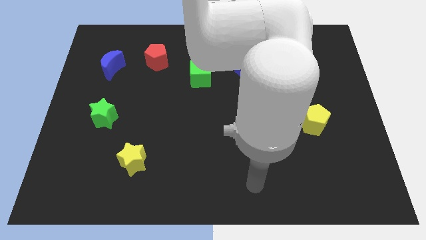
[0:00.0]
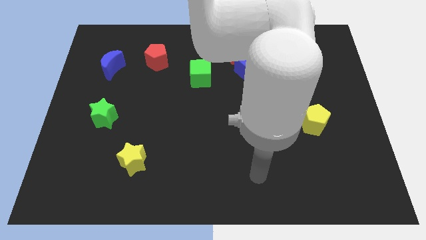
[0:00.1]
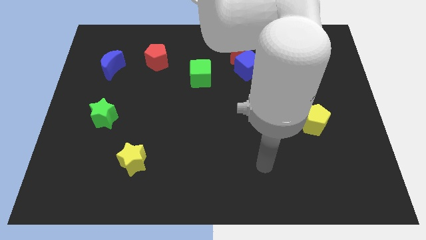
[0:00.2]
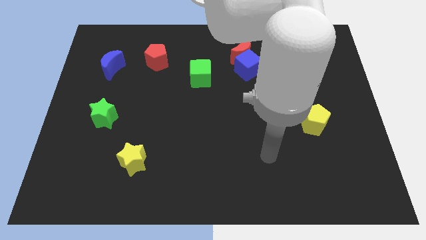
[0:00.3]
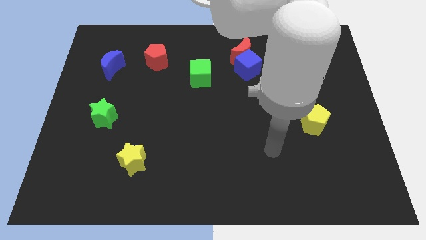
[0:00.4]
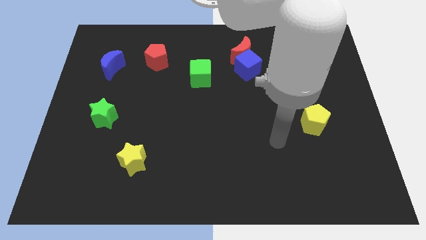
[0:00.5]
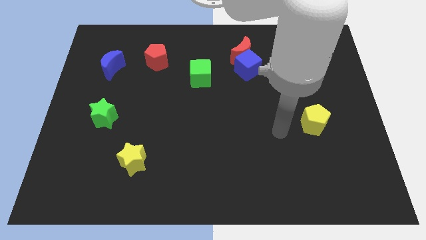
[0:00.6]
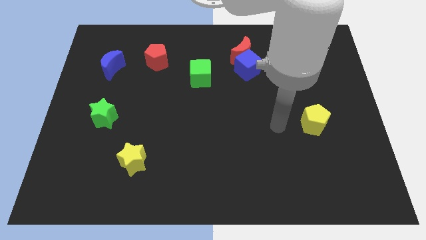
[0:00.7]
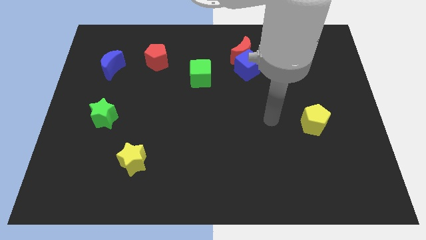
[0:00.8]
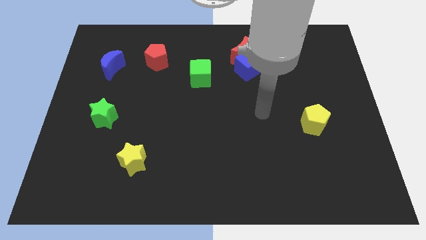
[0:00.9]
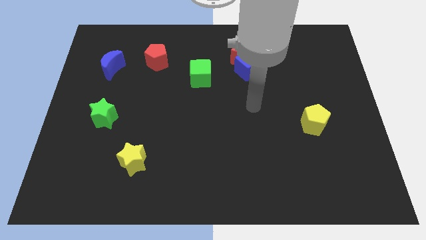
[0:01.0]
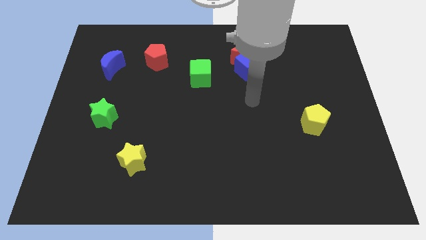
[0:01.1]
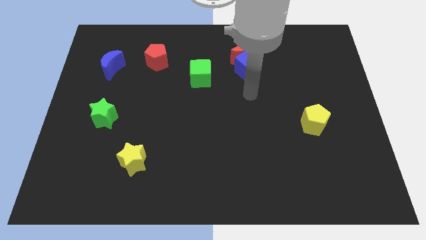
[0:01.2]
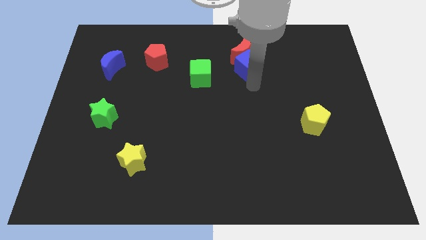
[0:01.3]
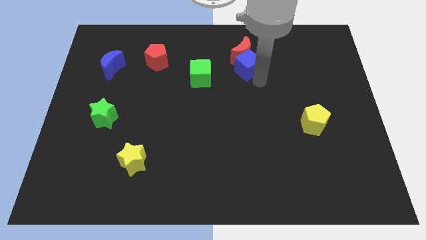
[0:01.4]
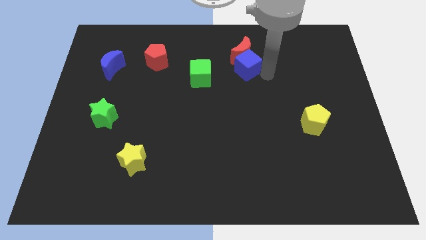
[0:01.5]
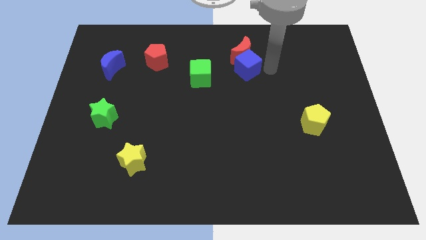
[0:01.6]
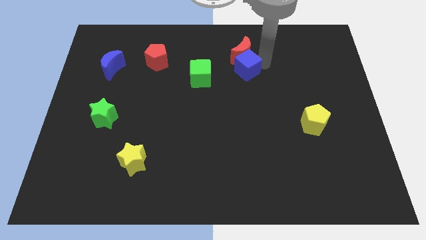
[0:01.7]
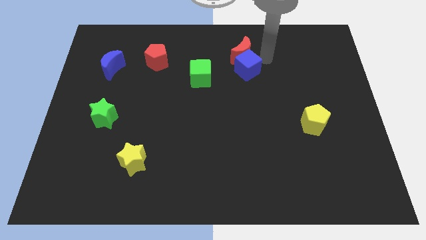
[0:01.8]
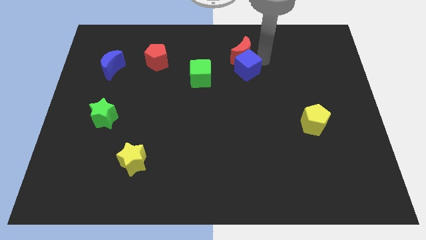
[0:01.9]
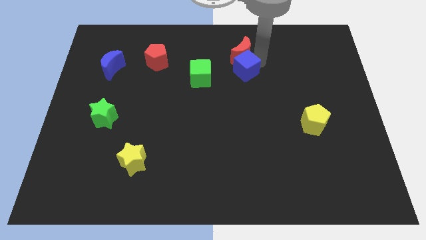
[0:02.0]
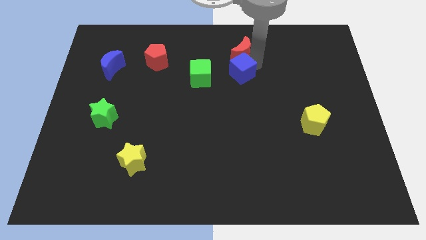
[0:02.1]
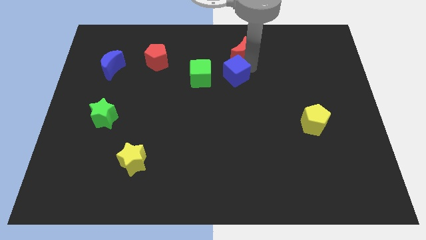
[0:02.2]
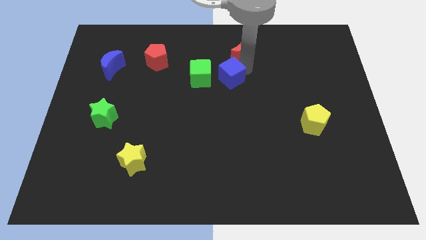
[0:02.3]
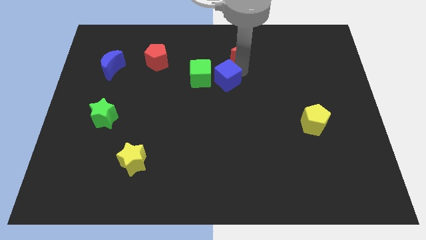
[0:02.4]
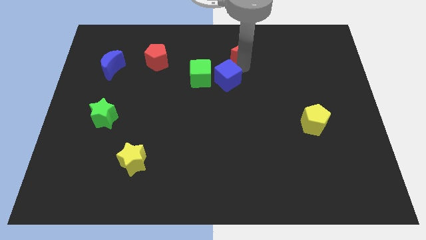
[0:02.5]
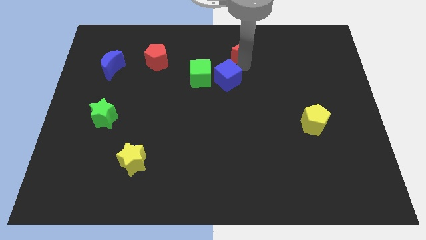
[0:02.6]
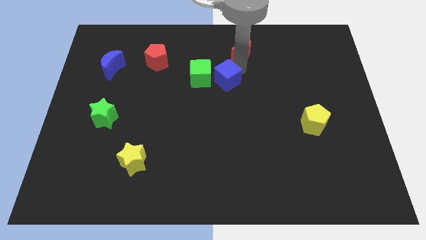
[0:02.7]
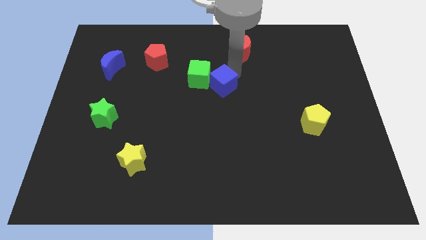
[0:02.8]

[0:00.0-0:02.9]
slide the blue cube a little downwards and to the left

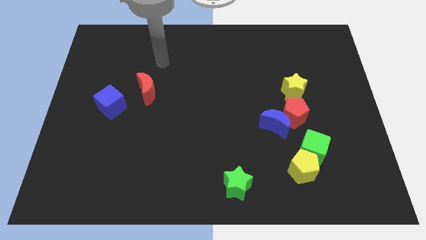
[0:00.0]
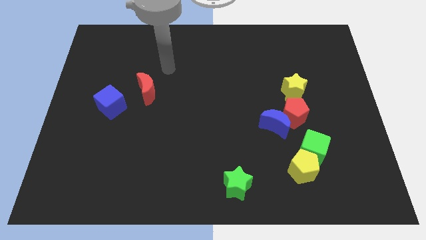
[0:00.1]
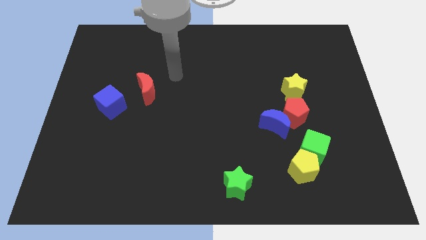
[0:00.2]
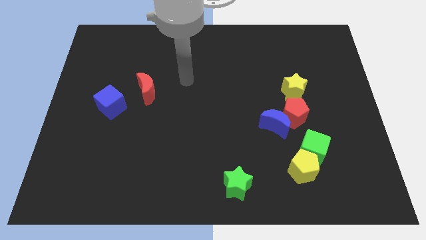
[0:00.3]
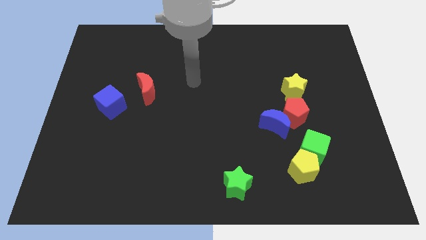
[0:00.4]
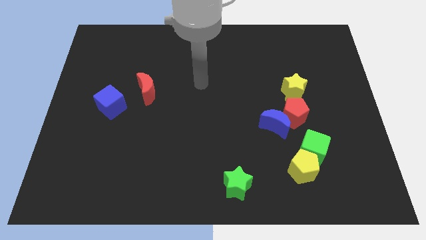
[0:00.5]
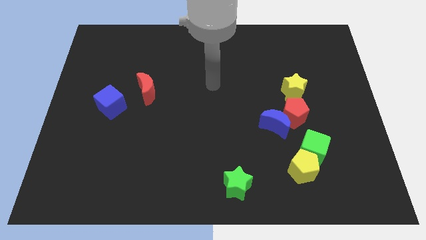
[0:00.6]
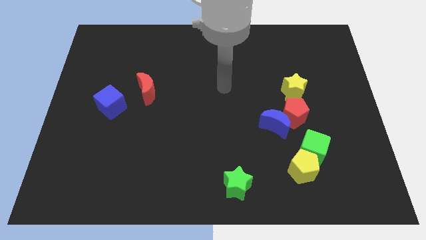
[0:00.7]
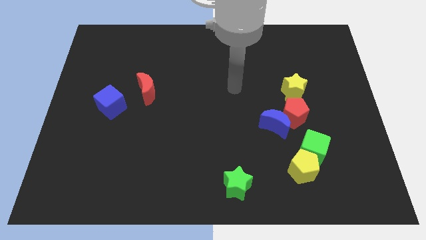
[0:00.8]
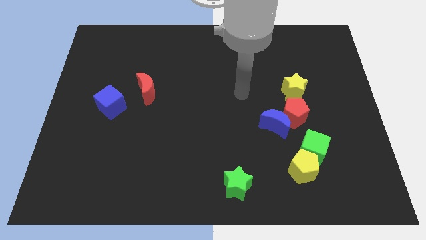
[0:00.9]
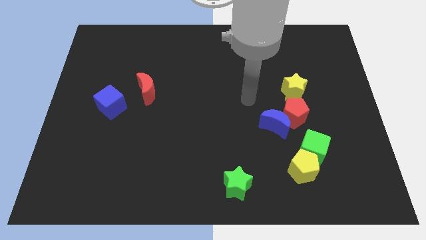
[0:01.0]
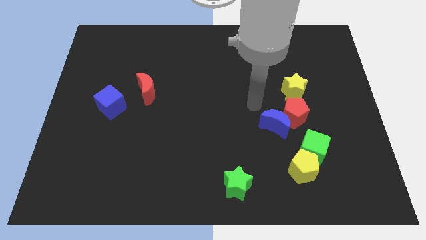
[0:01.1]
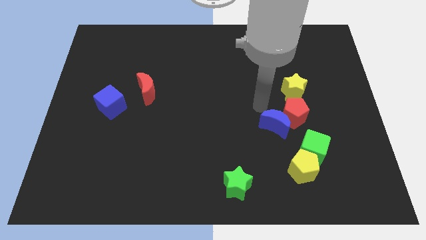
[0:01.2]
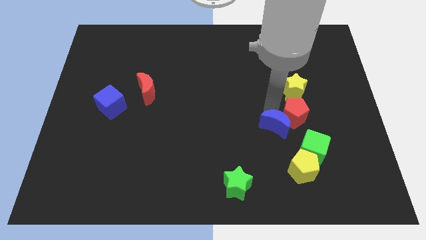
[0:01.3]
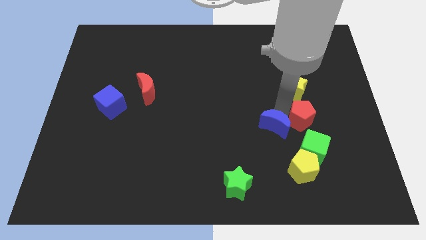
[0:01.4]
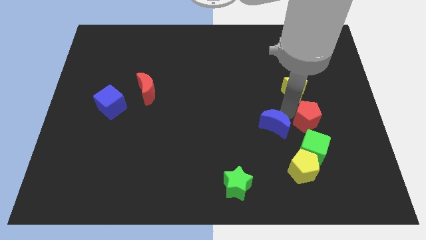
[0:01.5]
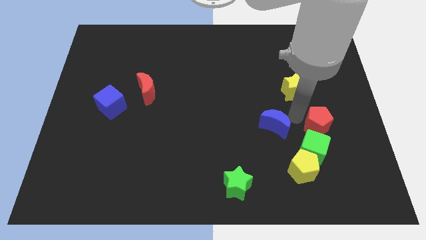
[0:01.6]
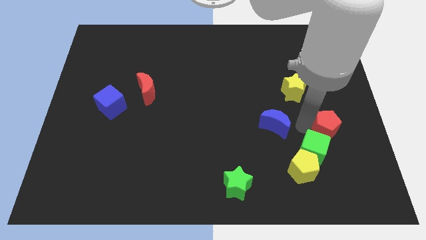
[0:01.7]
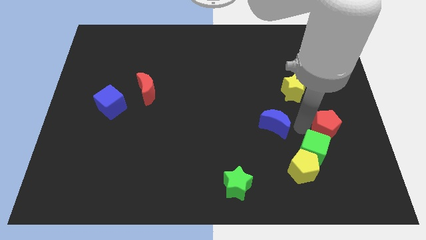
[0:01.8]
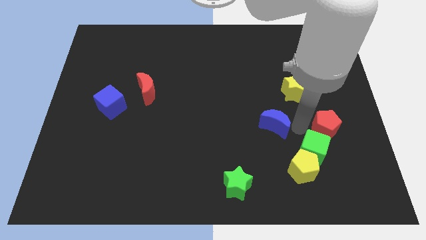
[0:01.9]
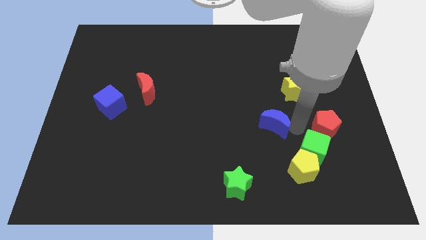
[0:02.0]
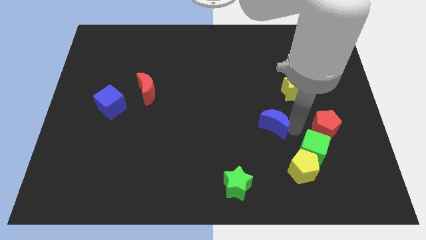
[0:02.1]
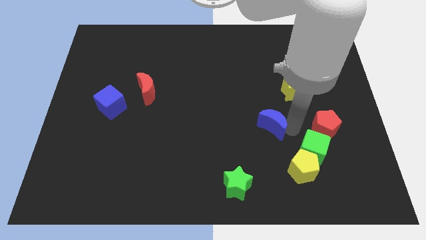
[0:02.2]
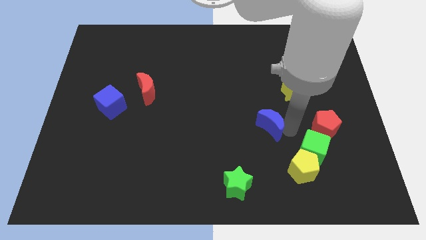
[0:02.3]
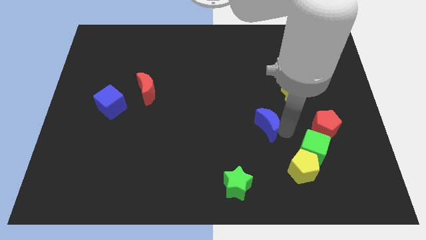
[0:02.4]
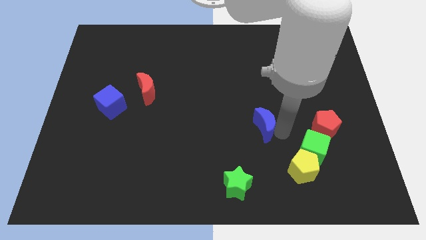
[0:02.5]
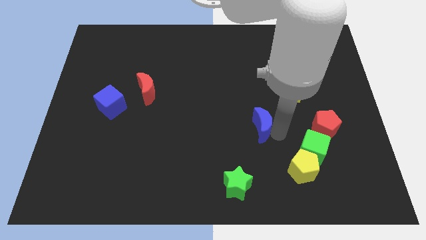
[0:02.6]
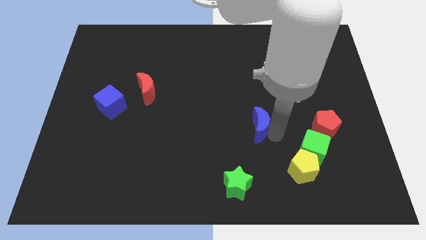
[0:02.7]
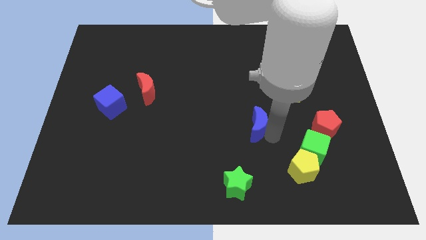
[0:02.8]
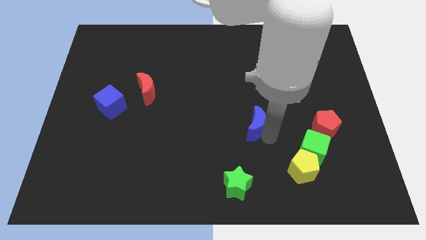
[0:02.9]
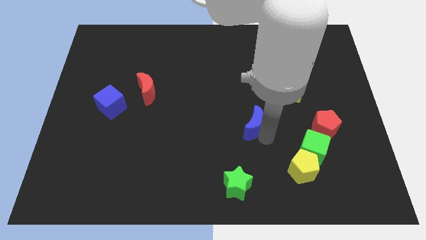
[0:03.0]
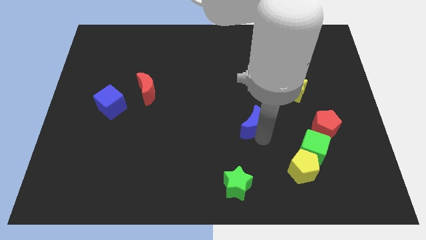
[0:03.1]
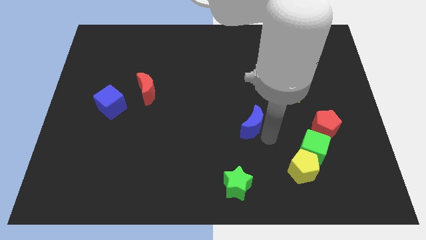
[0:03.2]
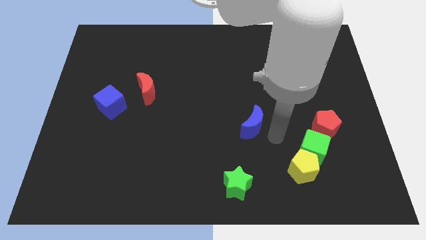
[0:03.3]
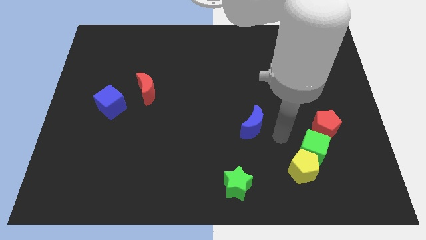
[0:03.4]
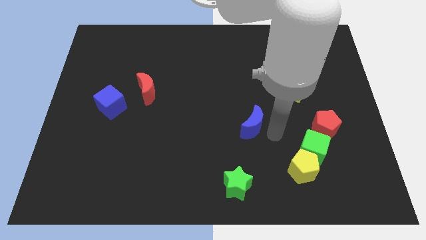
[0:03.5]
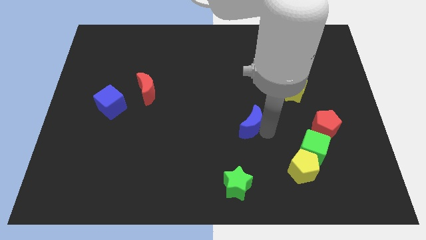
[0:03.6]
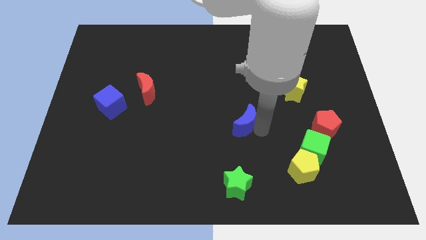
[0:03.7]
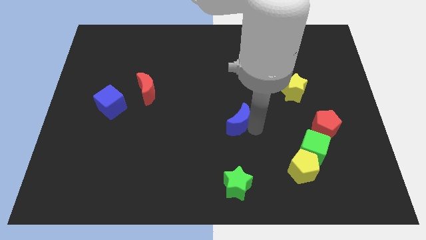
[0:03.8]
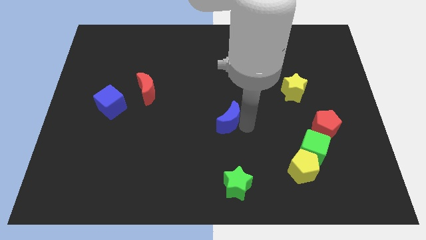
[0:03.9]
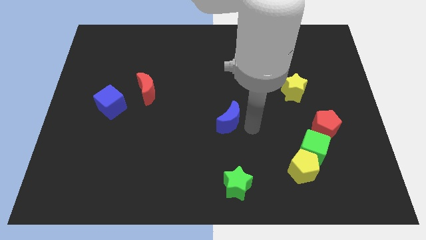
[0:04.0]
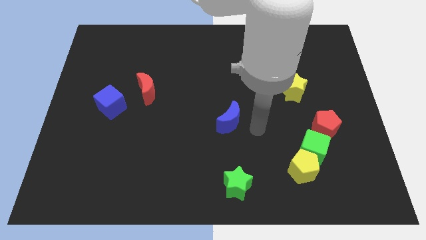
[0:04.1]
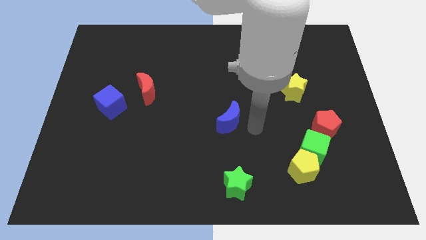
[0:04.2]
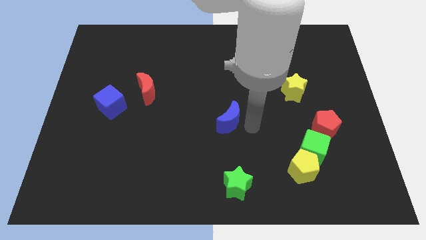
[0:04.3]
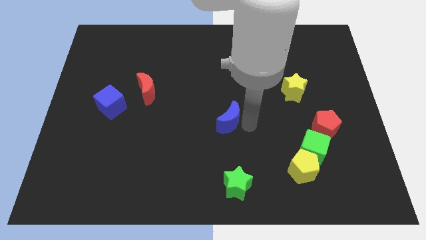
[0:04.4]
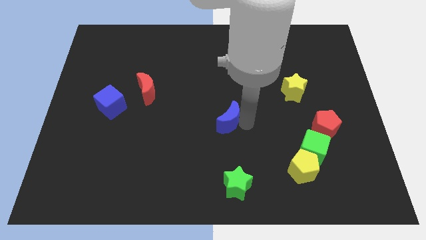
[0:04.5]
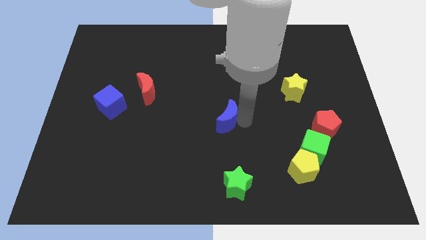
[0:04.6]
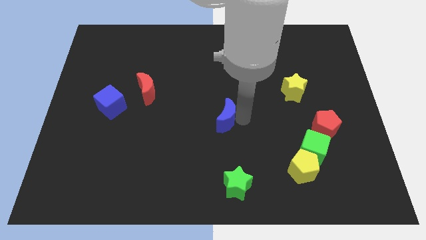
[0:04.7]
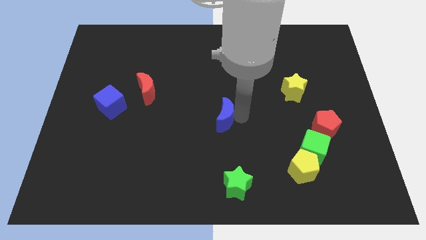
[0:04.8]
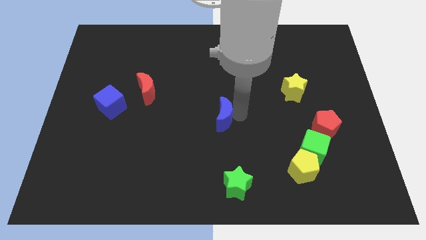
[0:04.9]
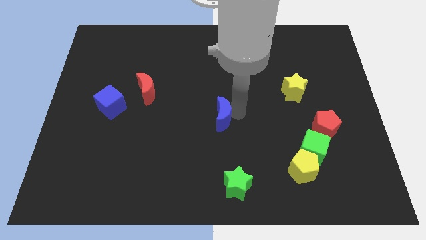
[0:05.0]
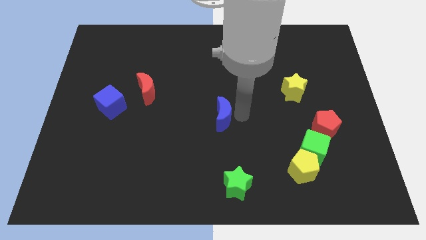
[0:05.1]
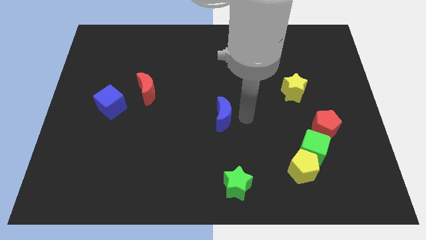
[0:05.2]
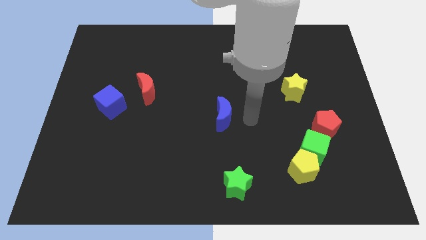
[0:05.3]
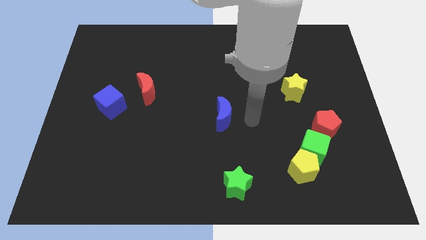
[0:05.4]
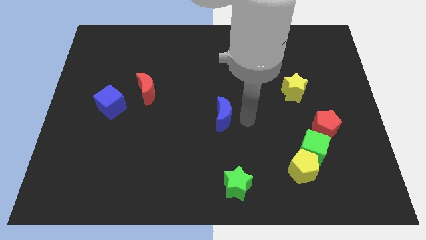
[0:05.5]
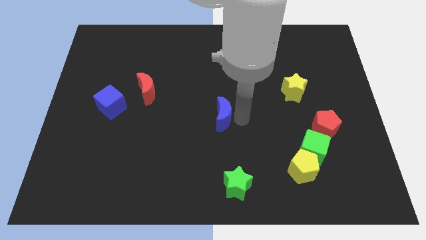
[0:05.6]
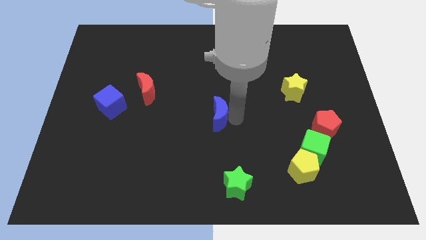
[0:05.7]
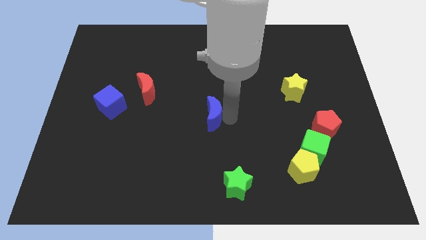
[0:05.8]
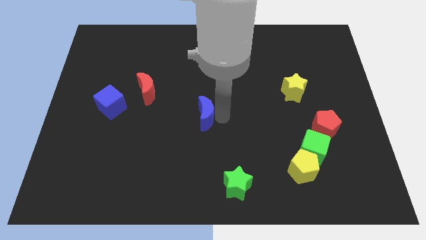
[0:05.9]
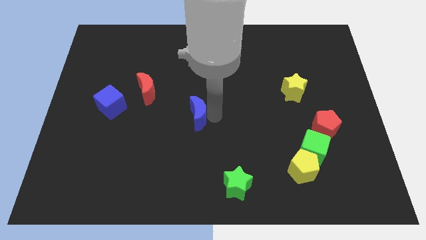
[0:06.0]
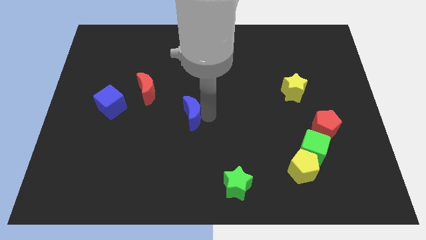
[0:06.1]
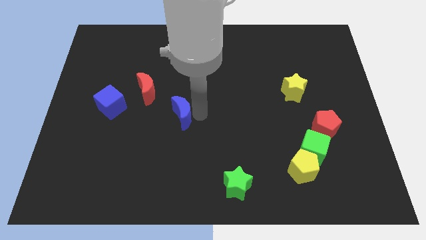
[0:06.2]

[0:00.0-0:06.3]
move the blue moon to the left
